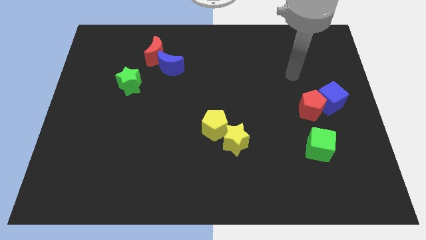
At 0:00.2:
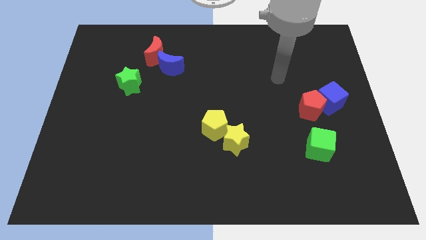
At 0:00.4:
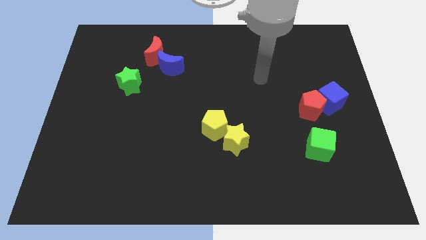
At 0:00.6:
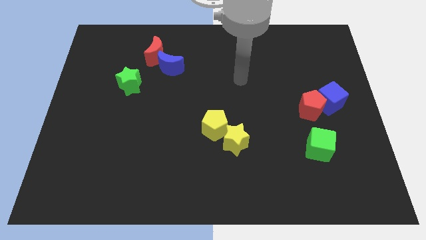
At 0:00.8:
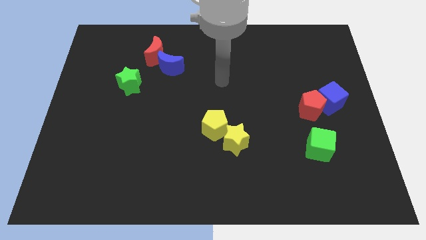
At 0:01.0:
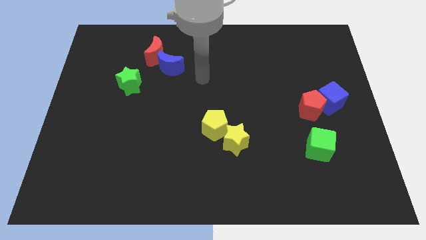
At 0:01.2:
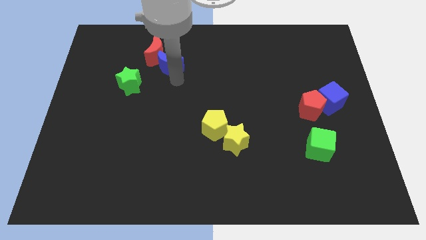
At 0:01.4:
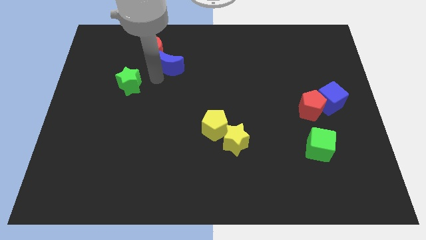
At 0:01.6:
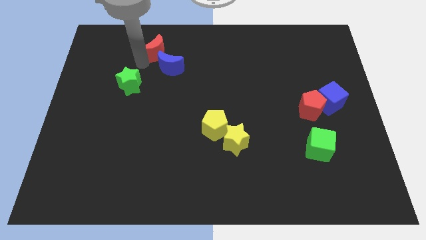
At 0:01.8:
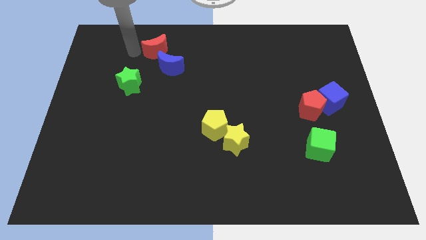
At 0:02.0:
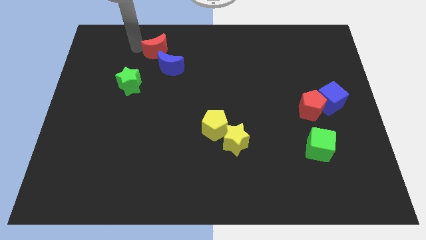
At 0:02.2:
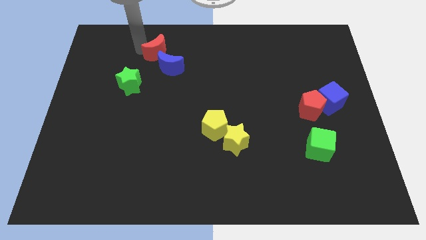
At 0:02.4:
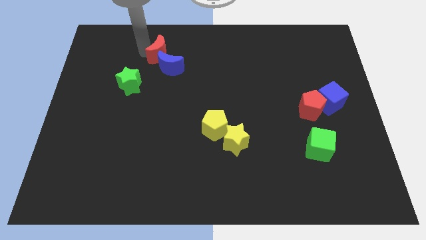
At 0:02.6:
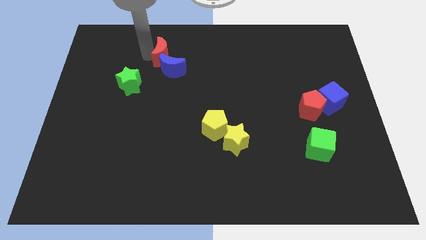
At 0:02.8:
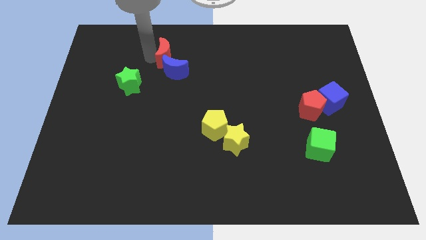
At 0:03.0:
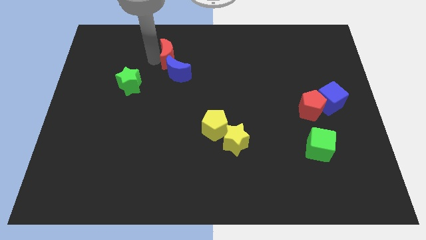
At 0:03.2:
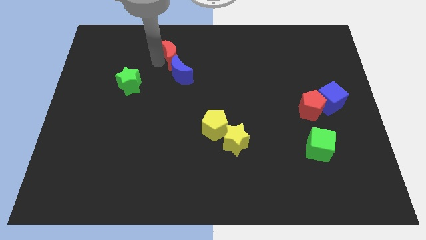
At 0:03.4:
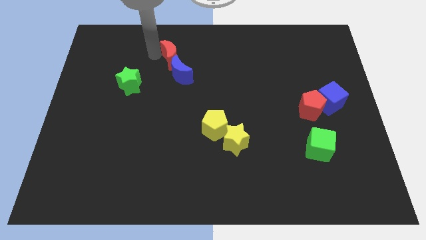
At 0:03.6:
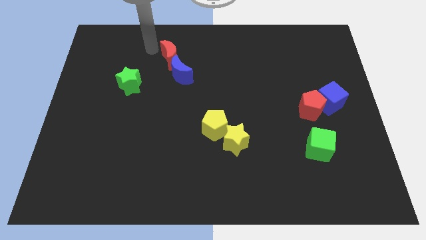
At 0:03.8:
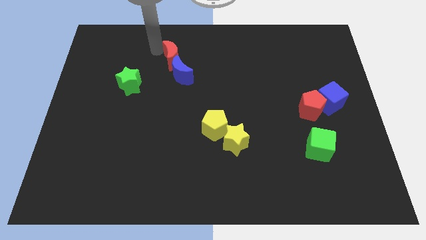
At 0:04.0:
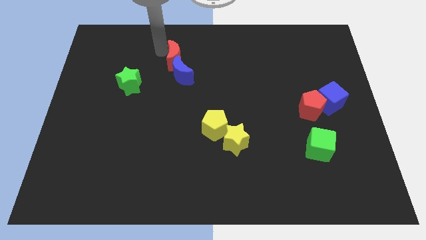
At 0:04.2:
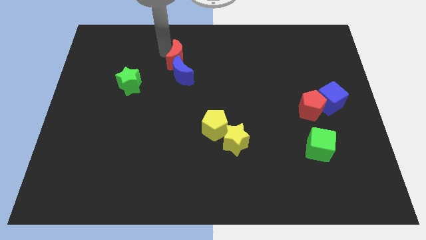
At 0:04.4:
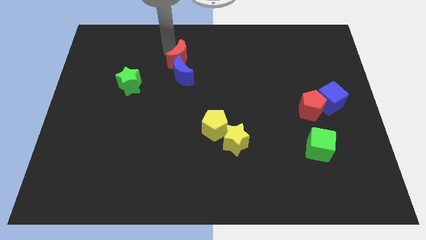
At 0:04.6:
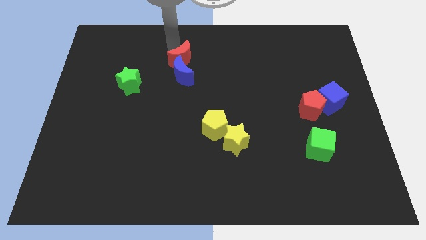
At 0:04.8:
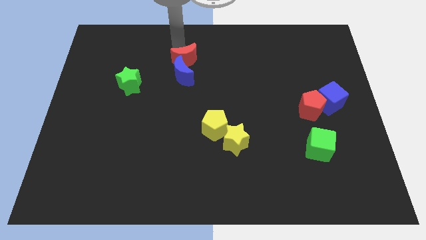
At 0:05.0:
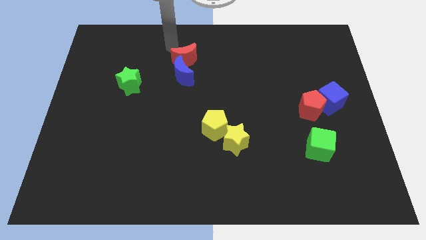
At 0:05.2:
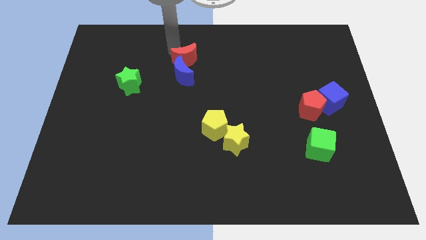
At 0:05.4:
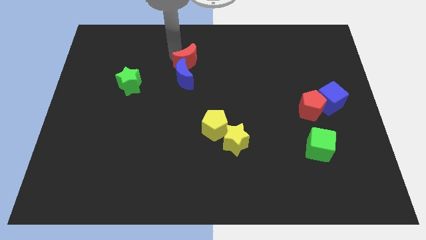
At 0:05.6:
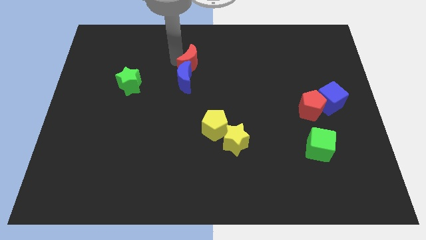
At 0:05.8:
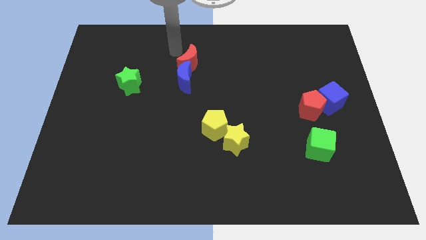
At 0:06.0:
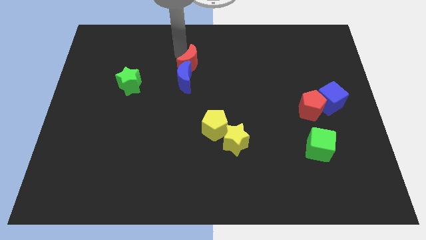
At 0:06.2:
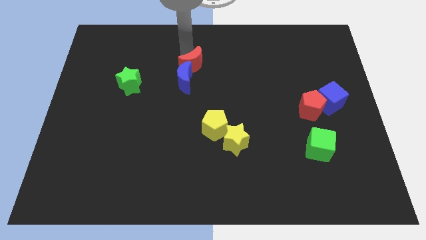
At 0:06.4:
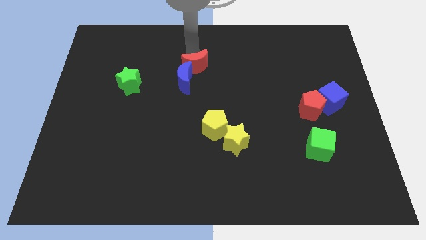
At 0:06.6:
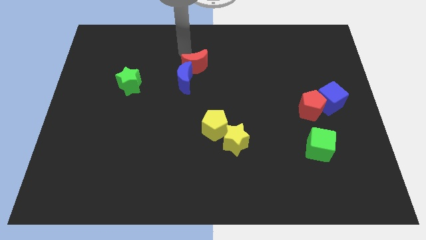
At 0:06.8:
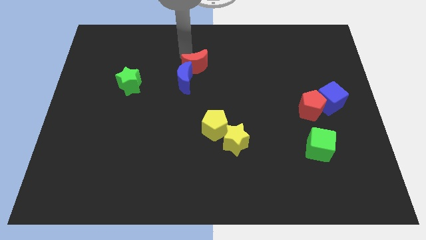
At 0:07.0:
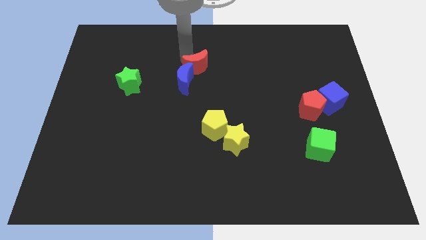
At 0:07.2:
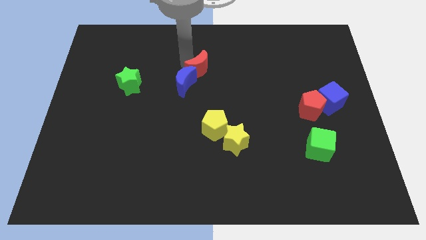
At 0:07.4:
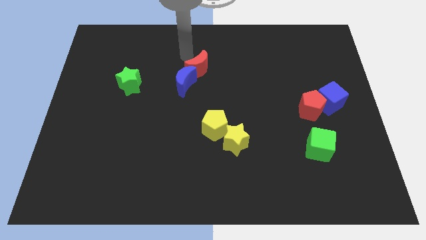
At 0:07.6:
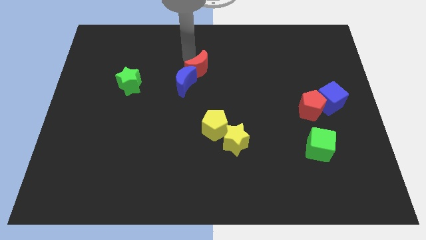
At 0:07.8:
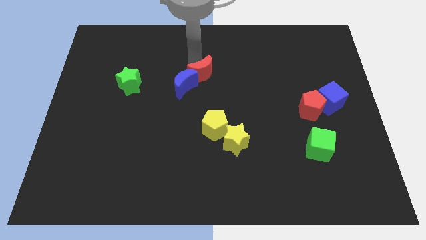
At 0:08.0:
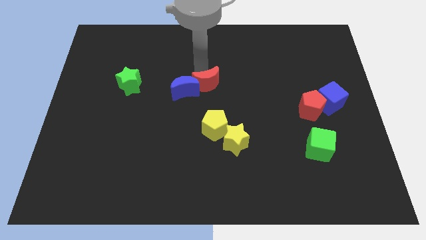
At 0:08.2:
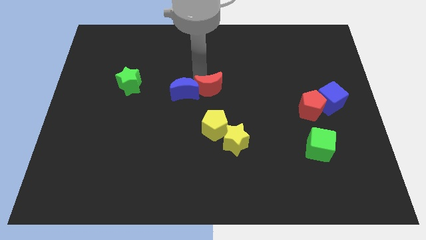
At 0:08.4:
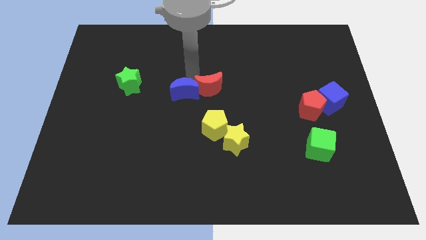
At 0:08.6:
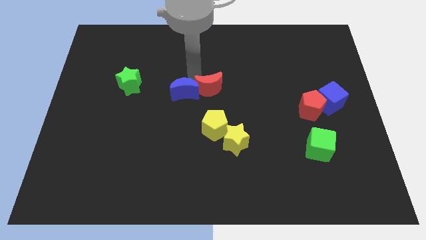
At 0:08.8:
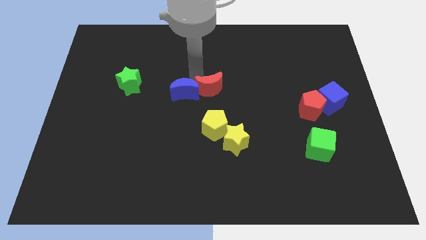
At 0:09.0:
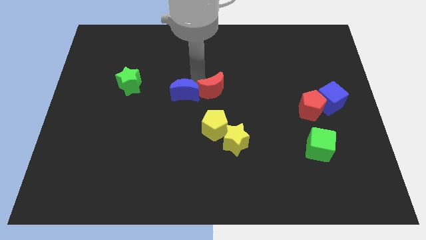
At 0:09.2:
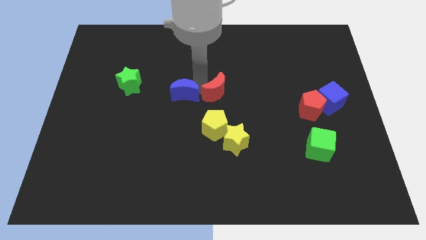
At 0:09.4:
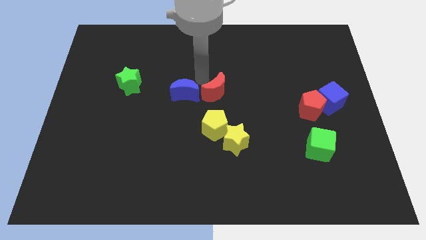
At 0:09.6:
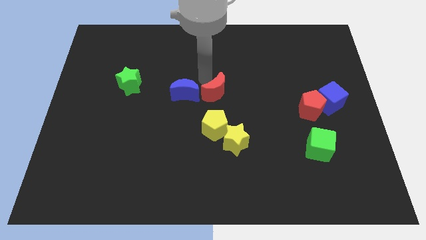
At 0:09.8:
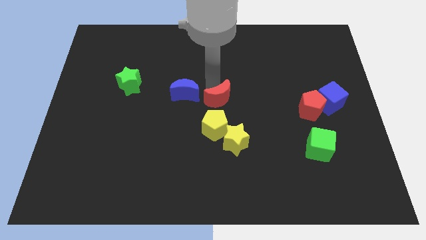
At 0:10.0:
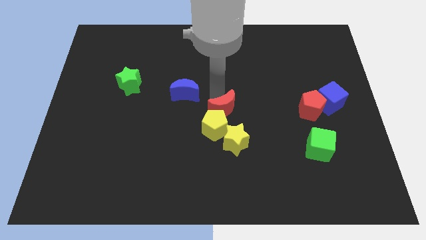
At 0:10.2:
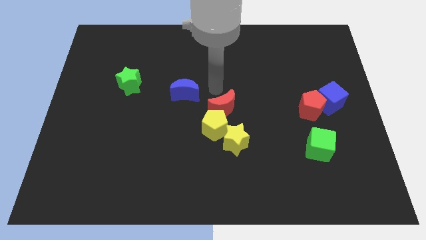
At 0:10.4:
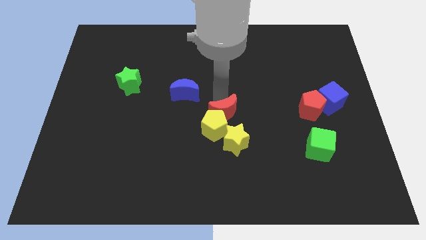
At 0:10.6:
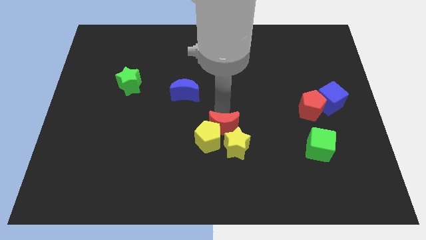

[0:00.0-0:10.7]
slide the red moon next to the yellow star

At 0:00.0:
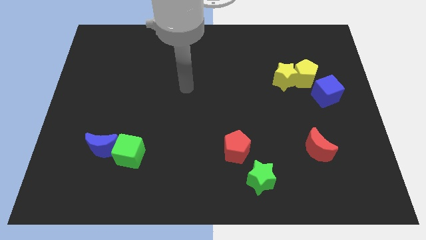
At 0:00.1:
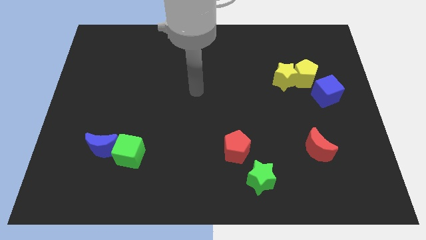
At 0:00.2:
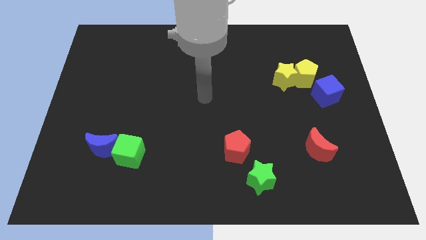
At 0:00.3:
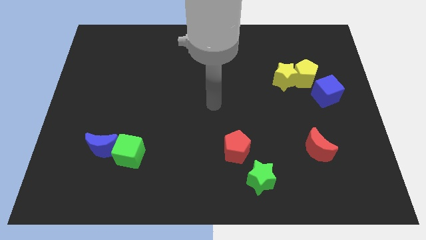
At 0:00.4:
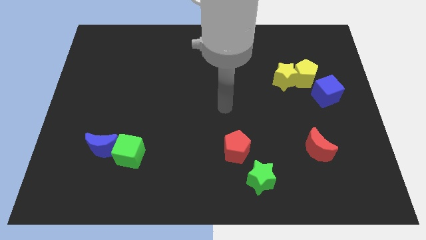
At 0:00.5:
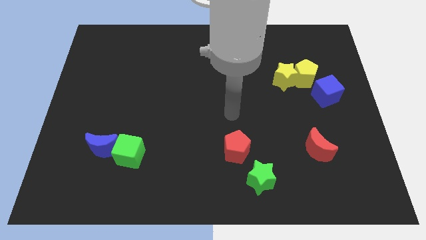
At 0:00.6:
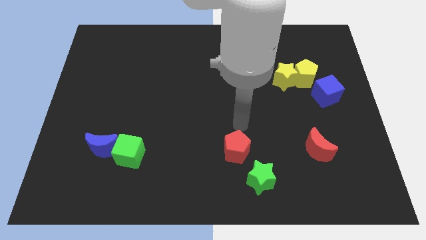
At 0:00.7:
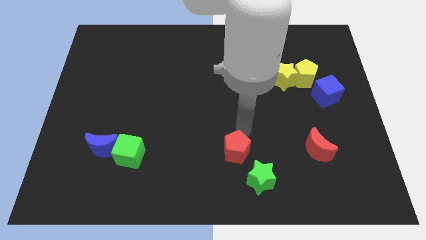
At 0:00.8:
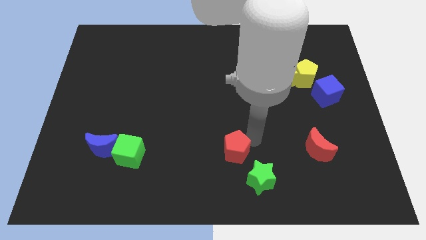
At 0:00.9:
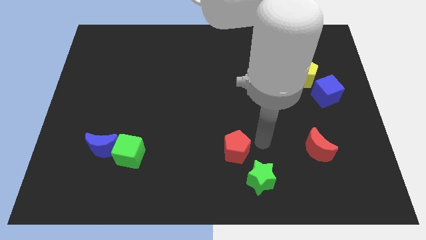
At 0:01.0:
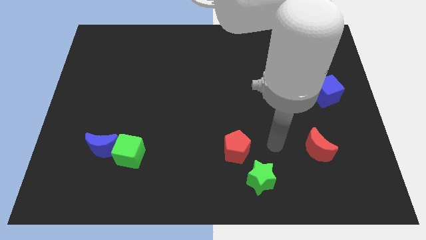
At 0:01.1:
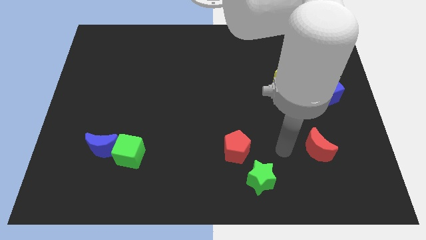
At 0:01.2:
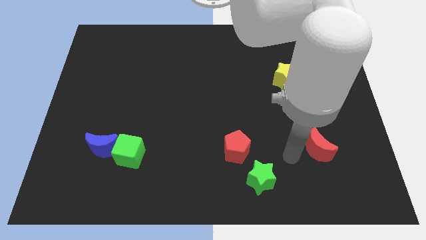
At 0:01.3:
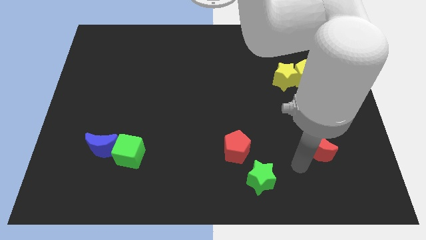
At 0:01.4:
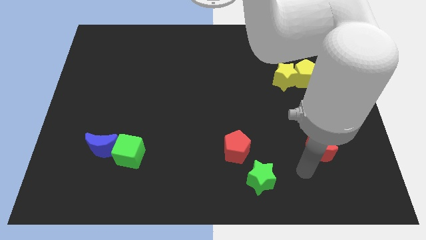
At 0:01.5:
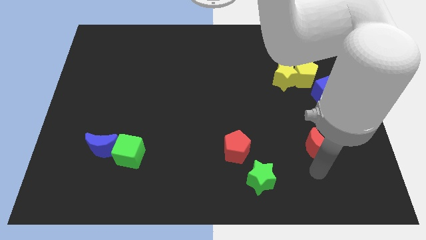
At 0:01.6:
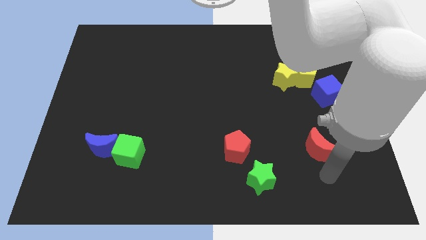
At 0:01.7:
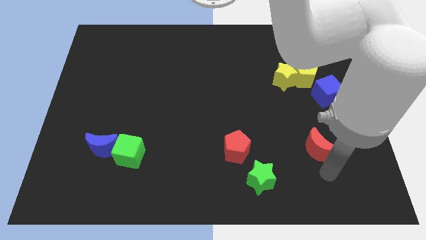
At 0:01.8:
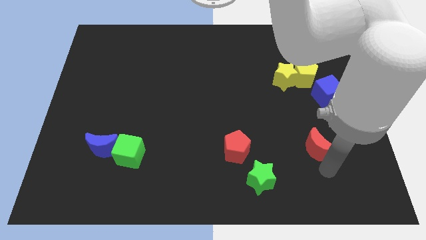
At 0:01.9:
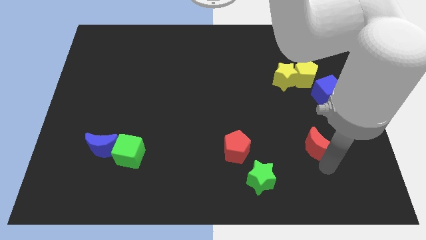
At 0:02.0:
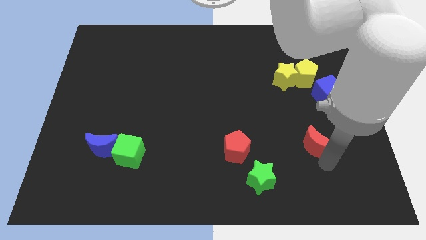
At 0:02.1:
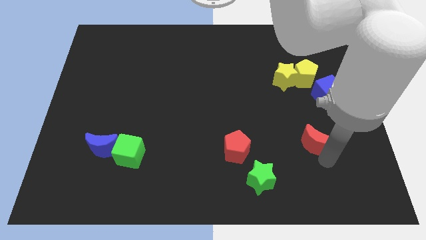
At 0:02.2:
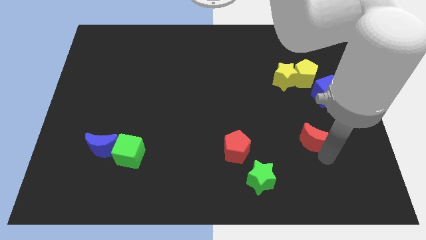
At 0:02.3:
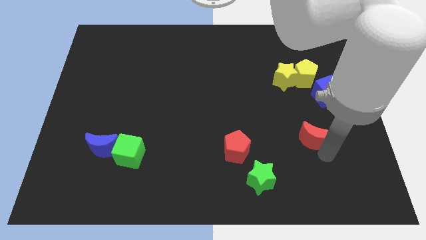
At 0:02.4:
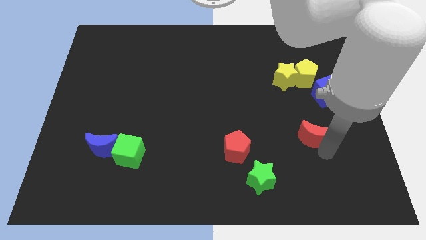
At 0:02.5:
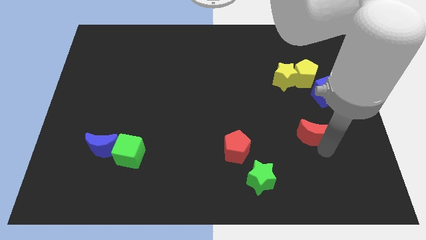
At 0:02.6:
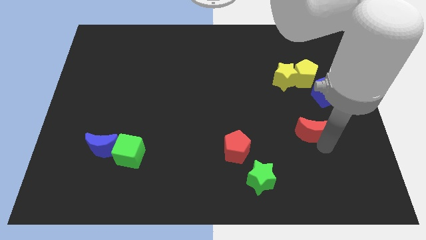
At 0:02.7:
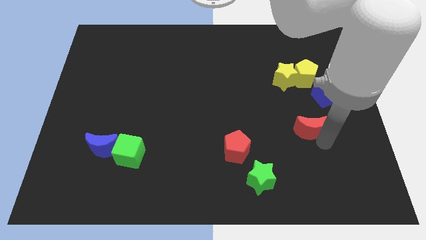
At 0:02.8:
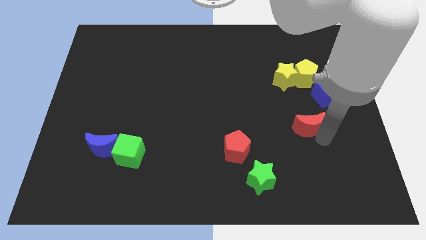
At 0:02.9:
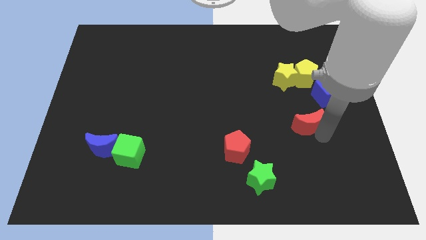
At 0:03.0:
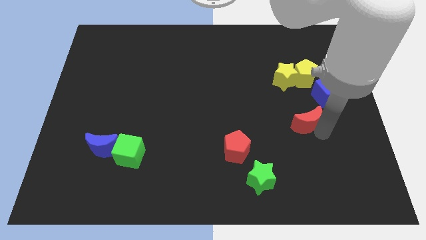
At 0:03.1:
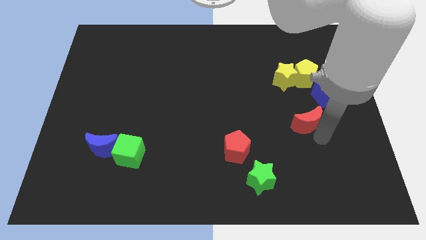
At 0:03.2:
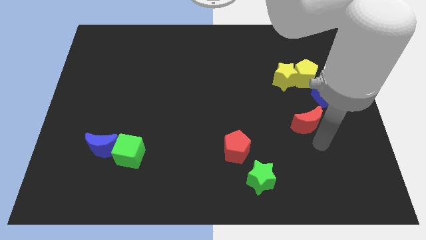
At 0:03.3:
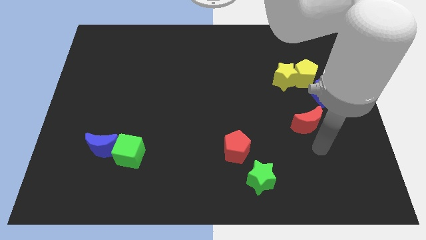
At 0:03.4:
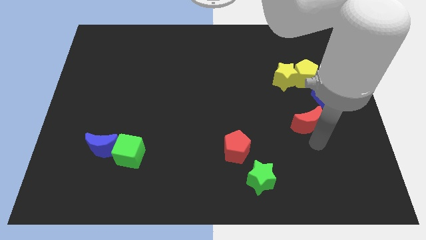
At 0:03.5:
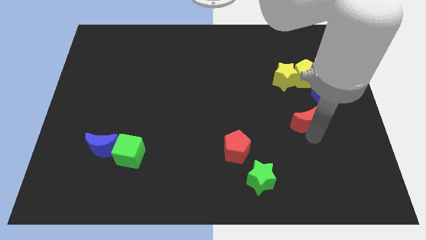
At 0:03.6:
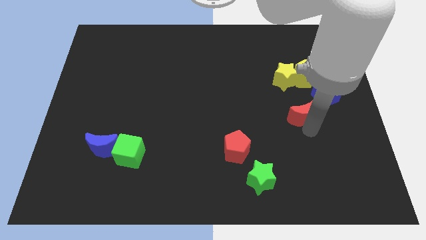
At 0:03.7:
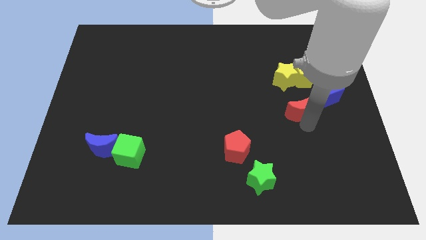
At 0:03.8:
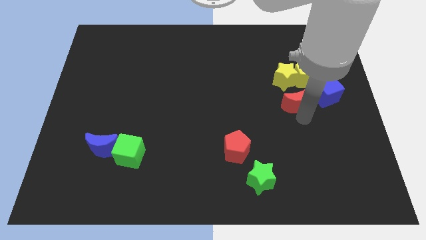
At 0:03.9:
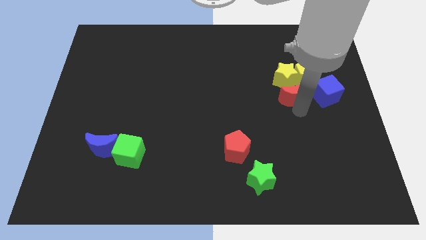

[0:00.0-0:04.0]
put the red moon to the yellow star
